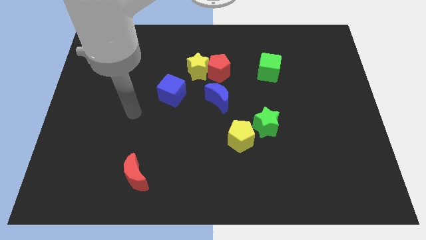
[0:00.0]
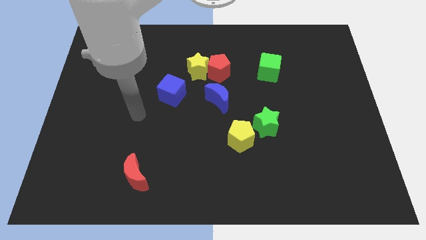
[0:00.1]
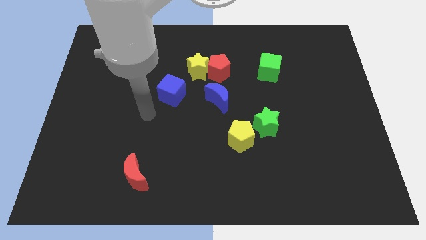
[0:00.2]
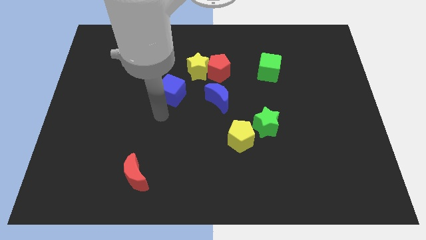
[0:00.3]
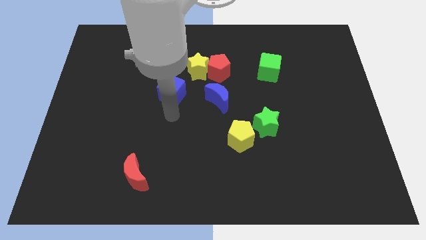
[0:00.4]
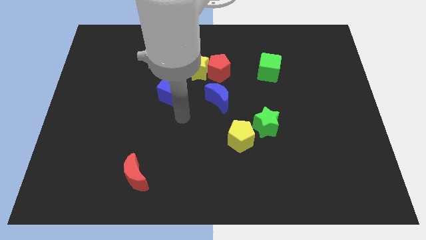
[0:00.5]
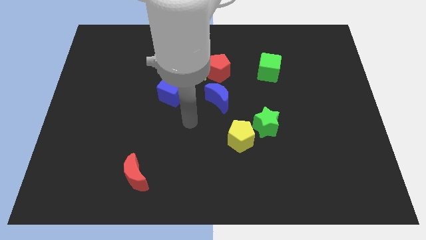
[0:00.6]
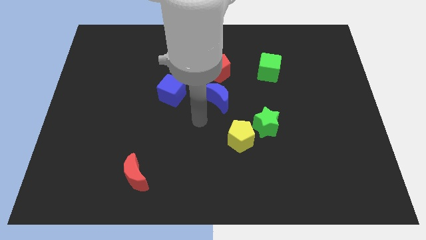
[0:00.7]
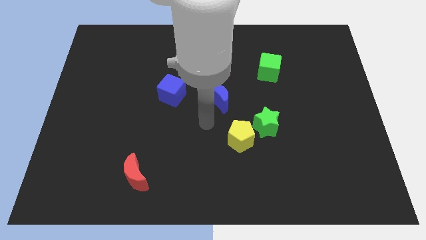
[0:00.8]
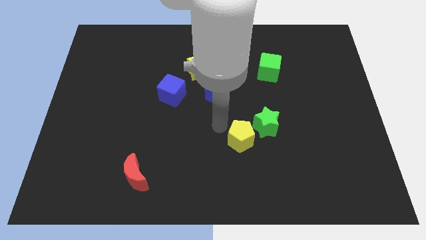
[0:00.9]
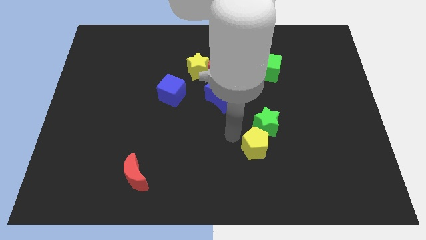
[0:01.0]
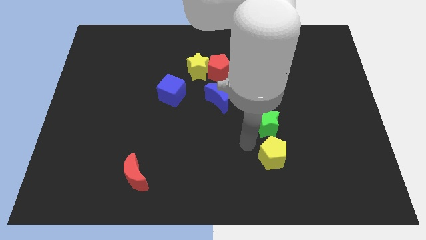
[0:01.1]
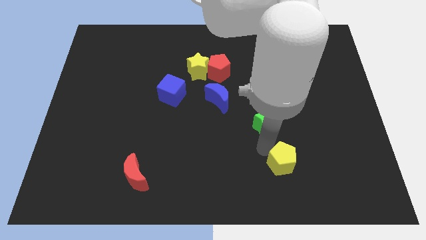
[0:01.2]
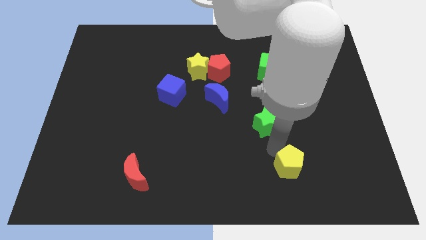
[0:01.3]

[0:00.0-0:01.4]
move the green star away from the yellow pentagon

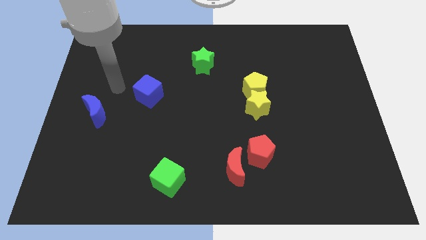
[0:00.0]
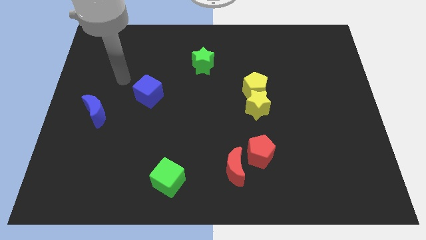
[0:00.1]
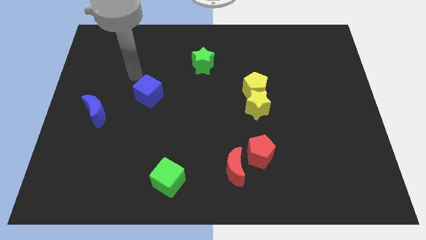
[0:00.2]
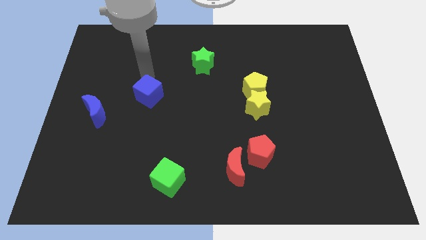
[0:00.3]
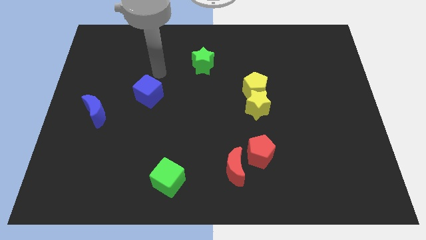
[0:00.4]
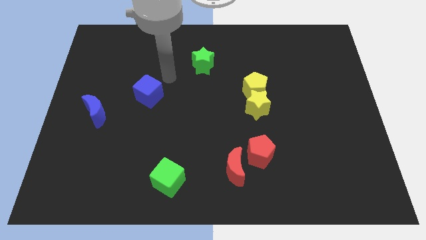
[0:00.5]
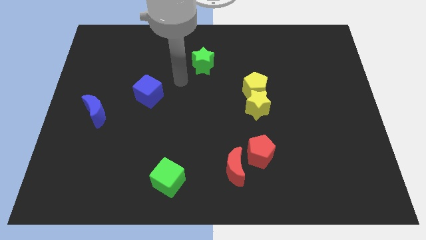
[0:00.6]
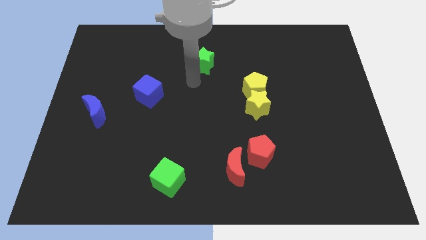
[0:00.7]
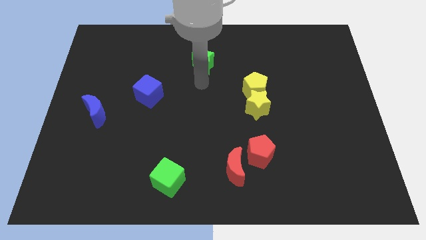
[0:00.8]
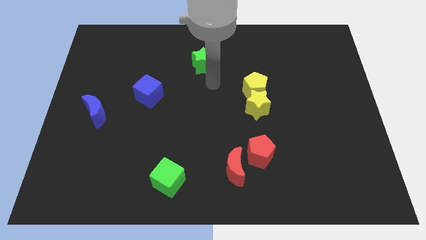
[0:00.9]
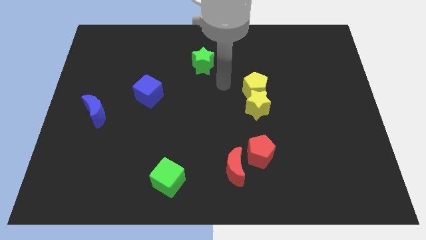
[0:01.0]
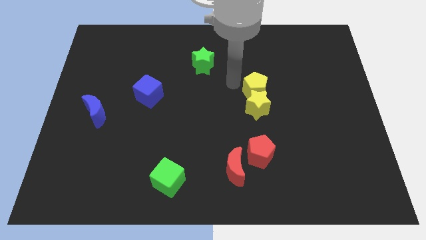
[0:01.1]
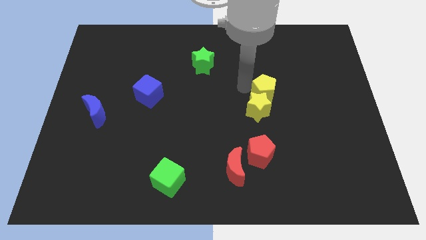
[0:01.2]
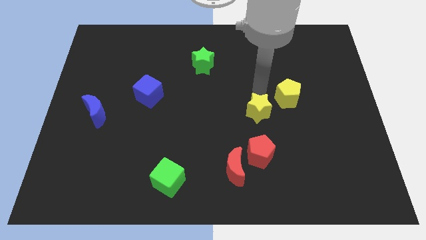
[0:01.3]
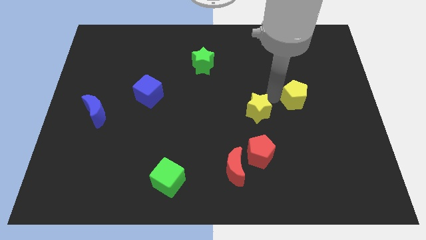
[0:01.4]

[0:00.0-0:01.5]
separate the yellow star from the yellow pentagon

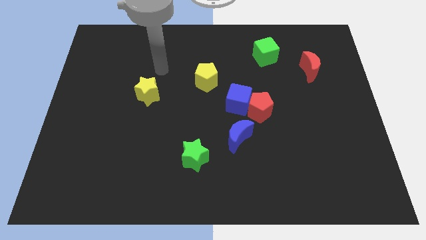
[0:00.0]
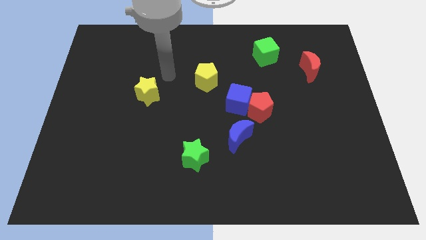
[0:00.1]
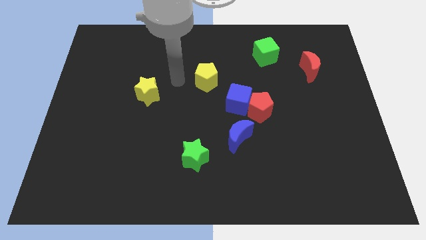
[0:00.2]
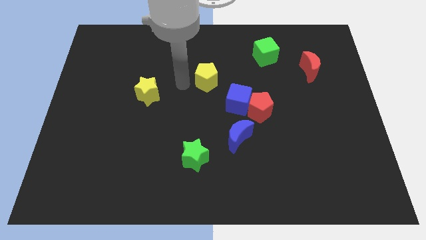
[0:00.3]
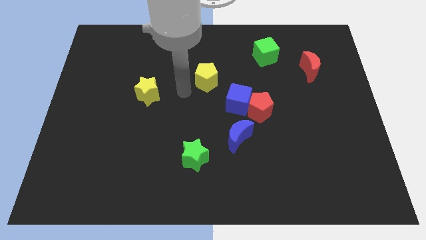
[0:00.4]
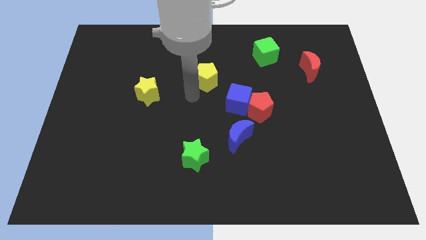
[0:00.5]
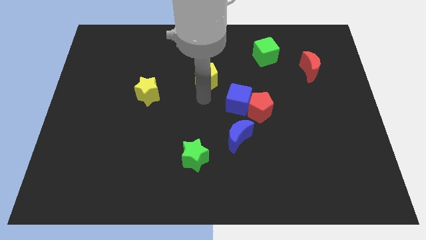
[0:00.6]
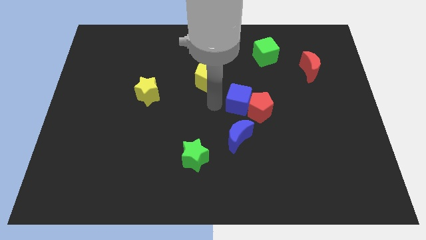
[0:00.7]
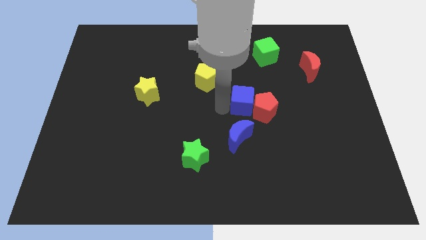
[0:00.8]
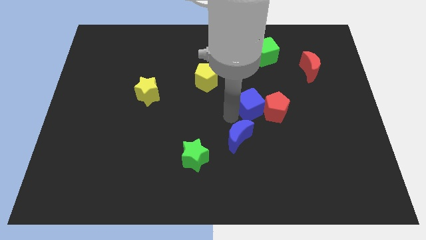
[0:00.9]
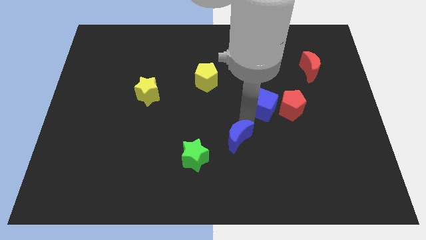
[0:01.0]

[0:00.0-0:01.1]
pull the red pentagon apart from the blue cube and blue moon

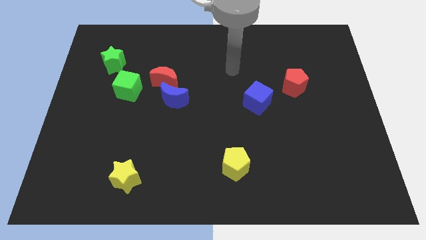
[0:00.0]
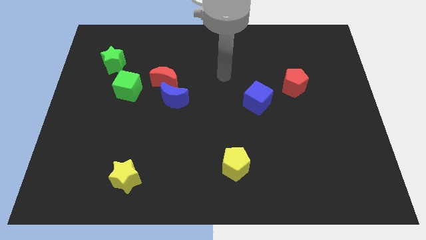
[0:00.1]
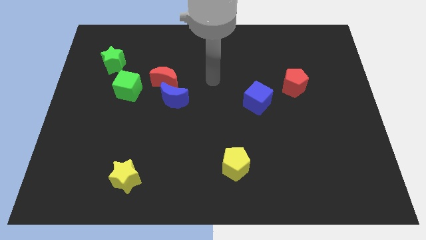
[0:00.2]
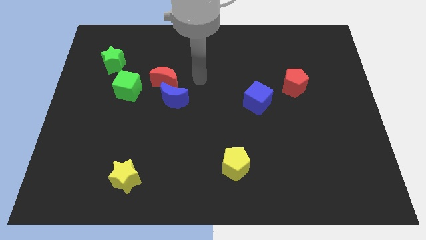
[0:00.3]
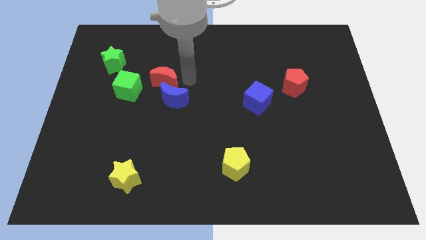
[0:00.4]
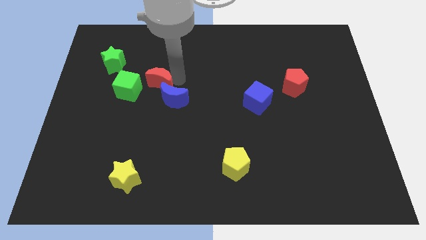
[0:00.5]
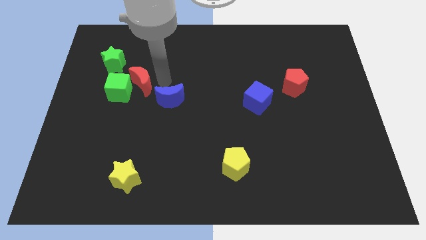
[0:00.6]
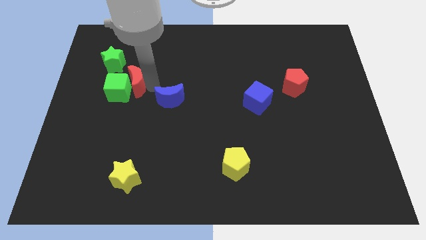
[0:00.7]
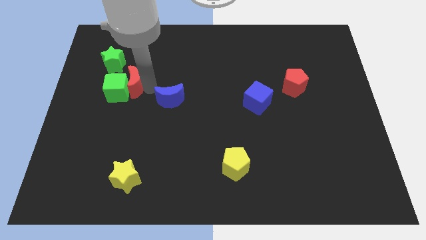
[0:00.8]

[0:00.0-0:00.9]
separate the blue moon from the red moon

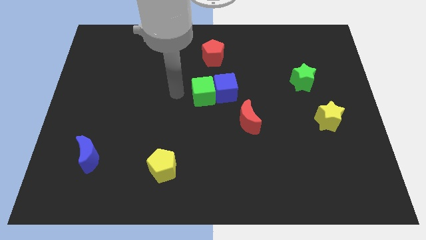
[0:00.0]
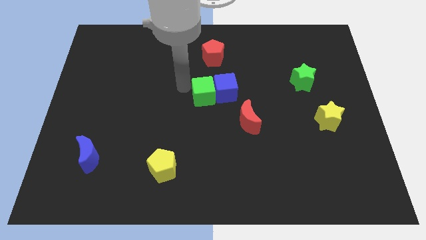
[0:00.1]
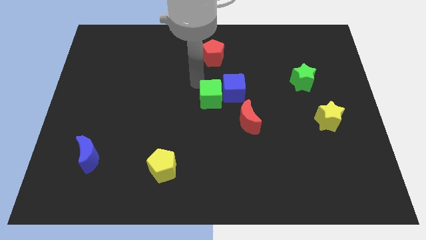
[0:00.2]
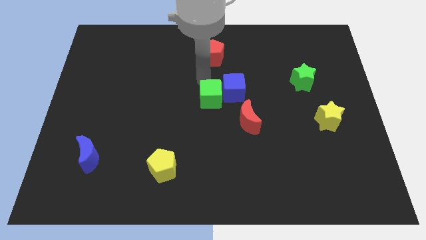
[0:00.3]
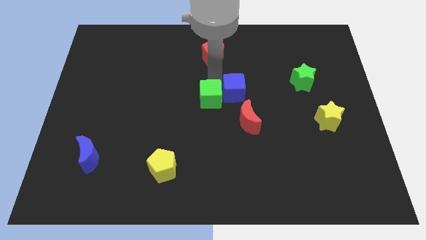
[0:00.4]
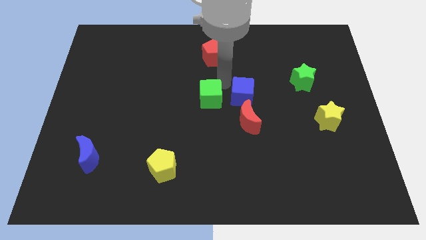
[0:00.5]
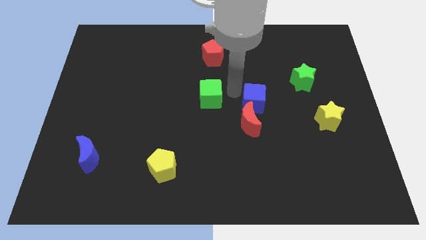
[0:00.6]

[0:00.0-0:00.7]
separate the green cube from the blue cube

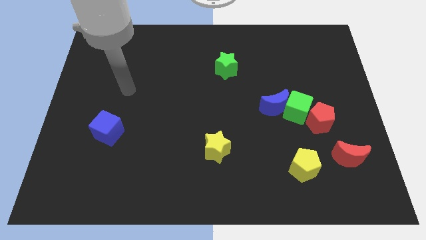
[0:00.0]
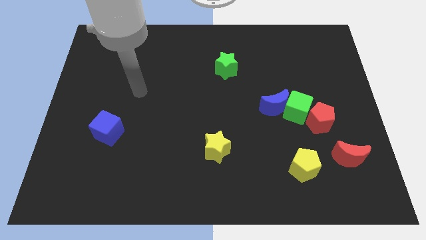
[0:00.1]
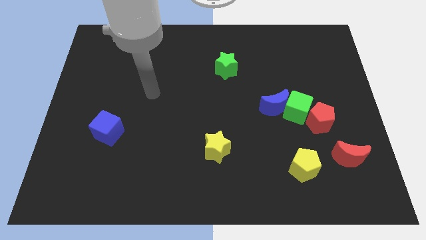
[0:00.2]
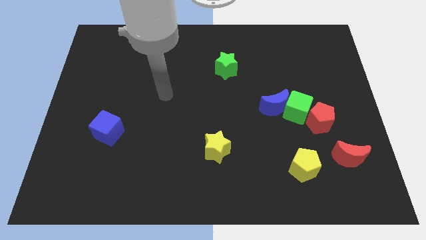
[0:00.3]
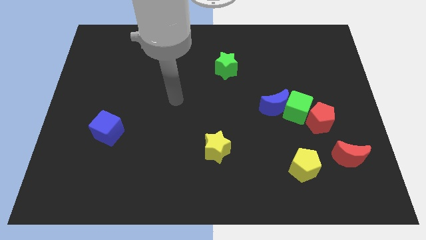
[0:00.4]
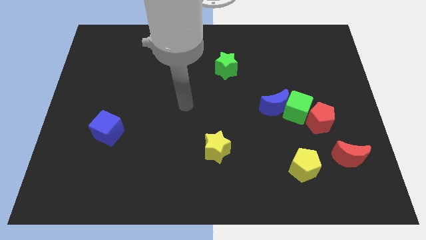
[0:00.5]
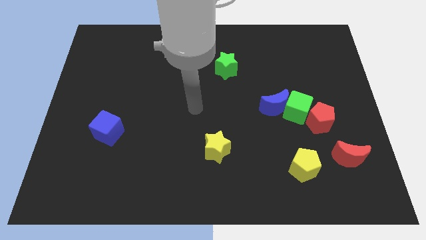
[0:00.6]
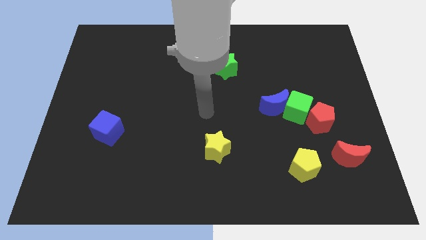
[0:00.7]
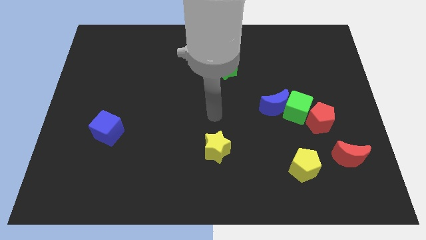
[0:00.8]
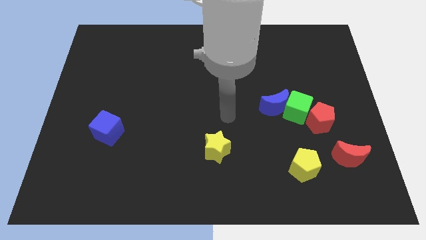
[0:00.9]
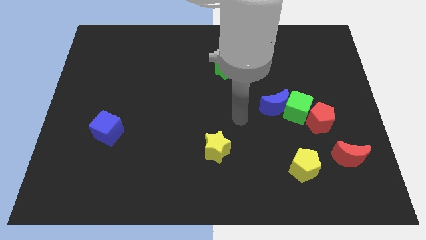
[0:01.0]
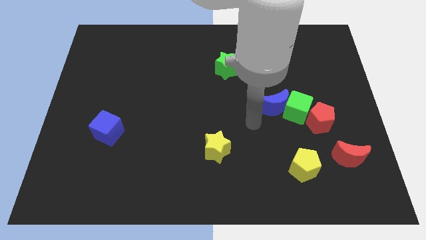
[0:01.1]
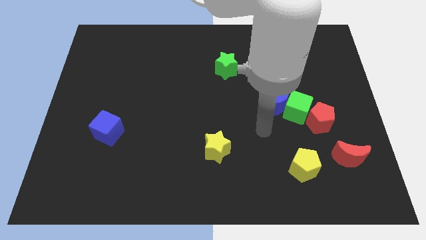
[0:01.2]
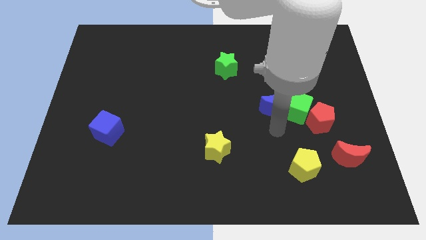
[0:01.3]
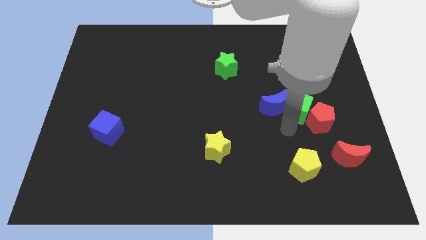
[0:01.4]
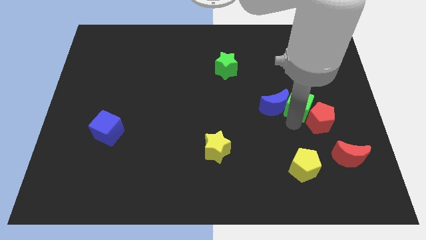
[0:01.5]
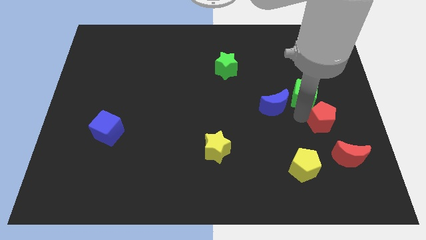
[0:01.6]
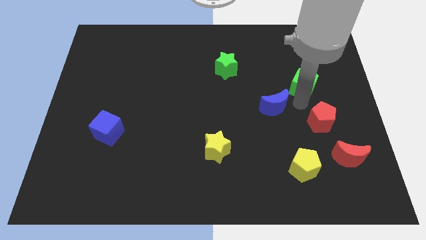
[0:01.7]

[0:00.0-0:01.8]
move the blue moon away from the green cube

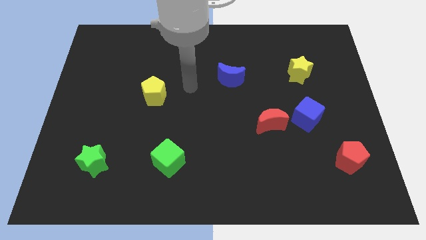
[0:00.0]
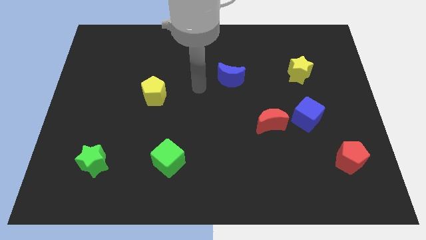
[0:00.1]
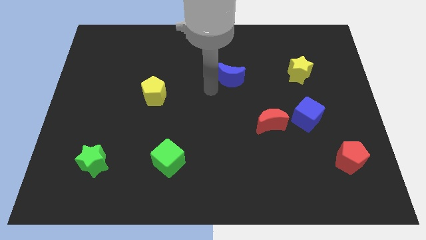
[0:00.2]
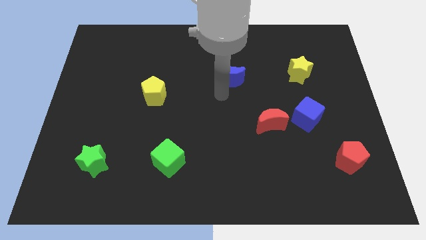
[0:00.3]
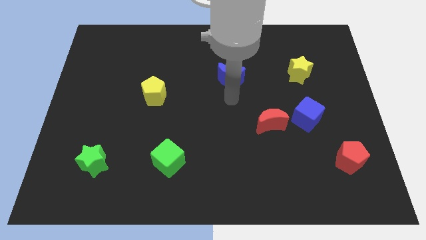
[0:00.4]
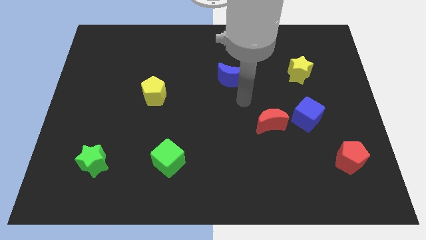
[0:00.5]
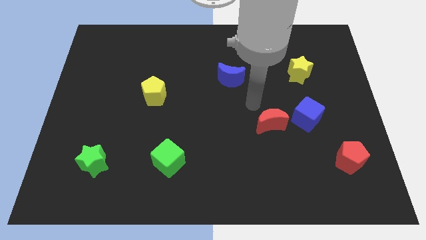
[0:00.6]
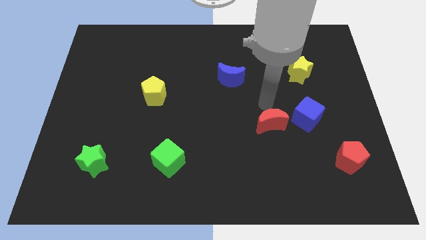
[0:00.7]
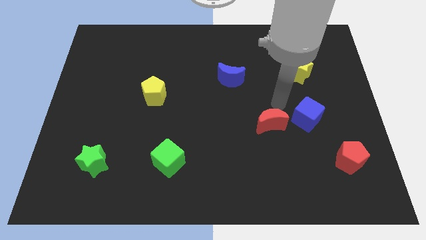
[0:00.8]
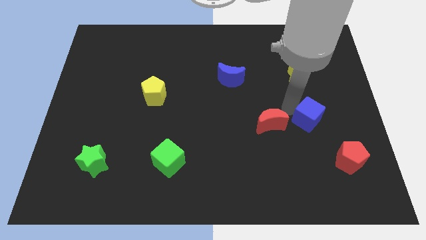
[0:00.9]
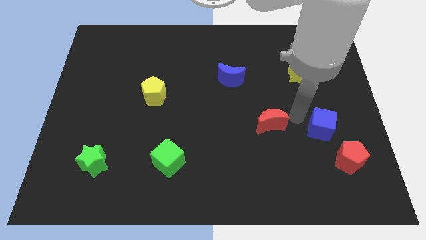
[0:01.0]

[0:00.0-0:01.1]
pull the red moon apart from the blue cube

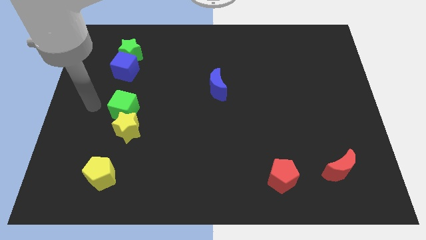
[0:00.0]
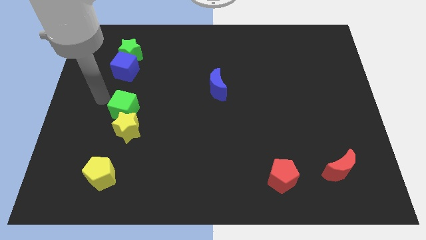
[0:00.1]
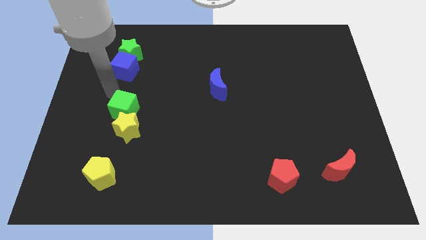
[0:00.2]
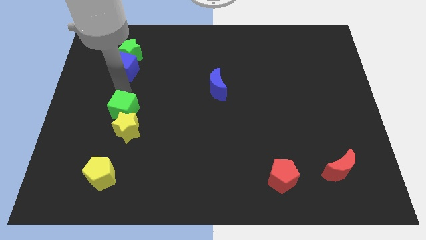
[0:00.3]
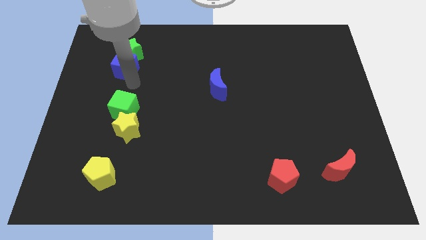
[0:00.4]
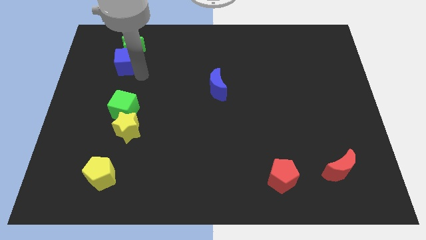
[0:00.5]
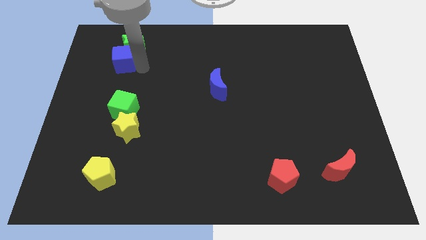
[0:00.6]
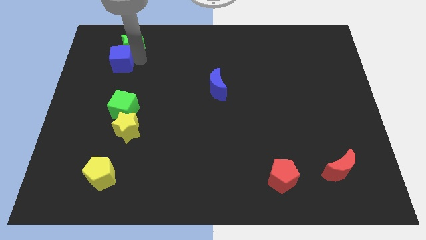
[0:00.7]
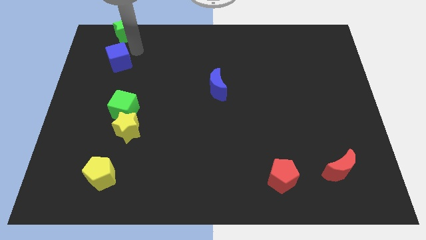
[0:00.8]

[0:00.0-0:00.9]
pull the blue cube apart from the green star
